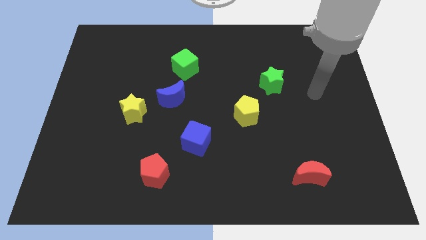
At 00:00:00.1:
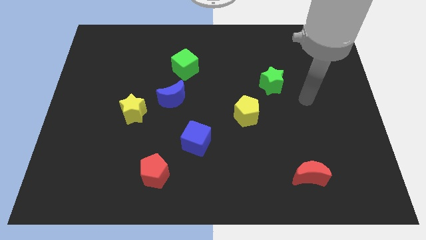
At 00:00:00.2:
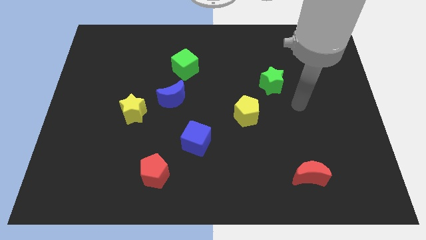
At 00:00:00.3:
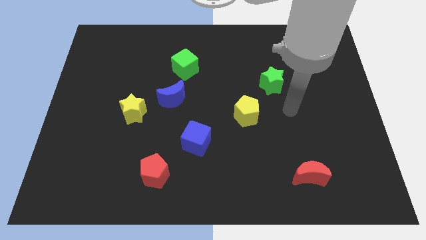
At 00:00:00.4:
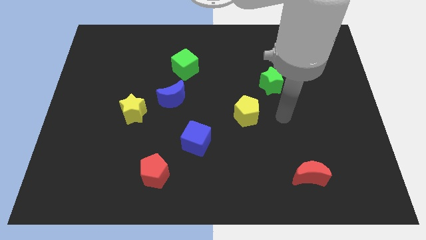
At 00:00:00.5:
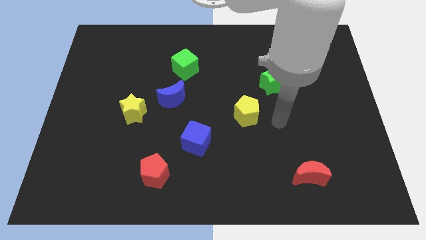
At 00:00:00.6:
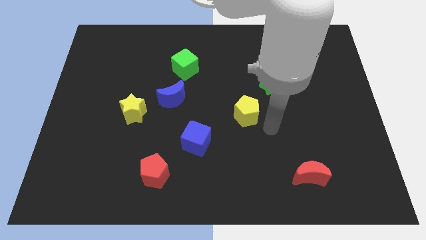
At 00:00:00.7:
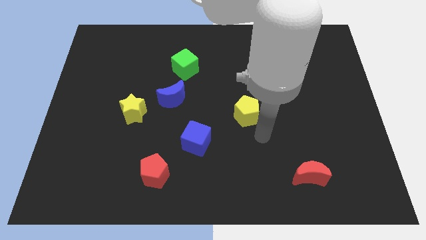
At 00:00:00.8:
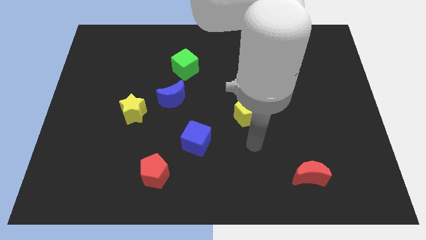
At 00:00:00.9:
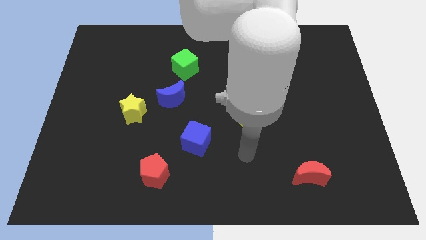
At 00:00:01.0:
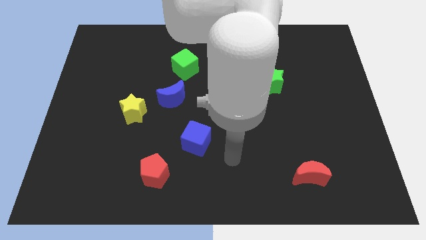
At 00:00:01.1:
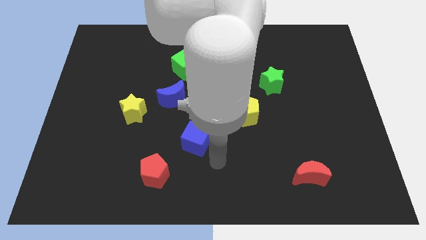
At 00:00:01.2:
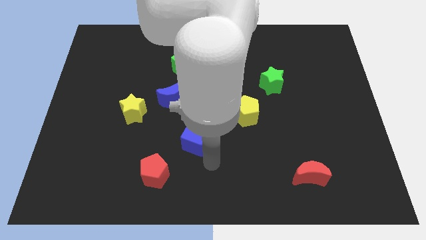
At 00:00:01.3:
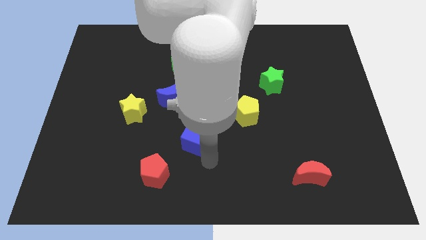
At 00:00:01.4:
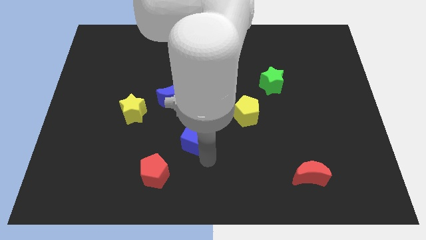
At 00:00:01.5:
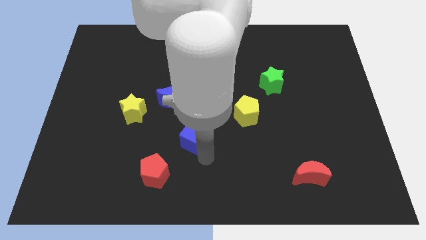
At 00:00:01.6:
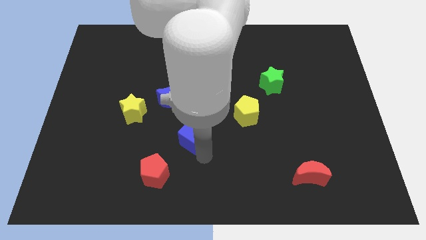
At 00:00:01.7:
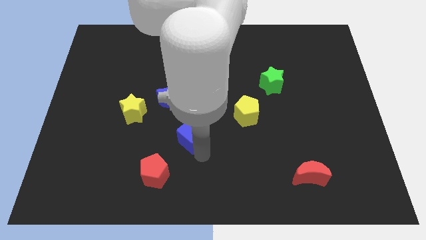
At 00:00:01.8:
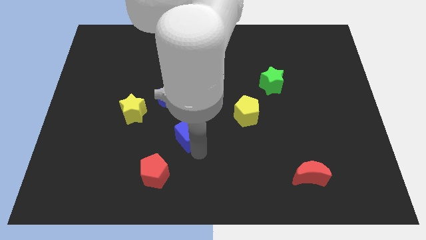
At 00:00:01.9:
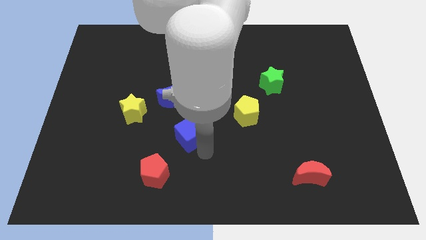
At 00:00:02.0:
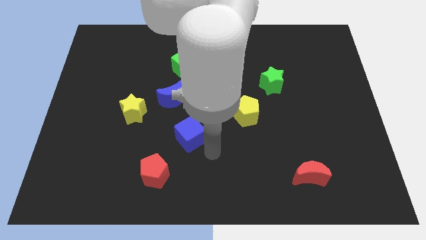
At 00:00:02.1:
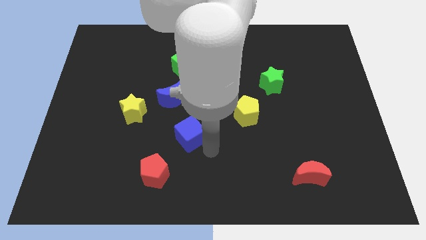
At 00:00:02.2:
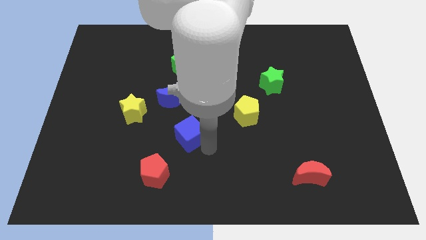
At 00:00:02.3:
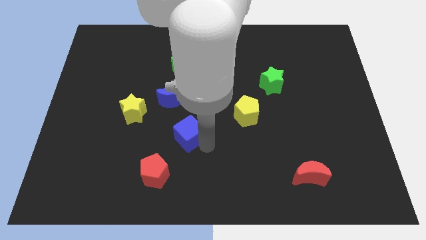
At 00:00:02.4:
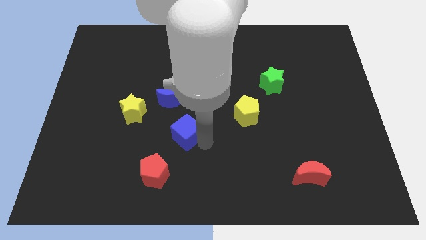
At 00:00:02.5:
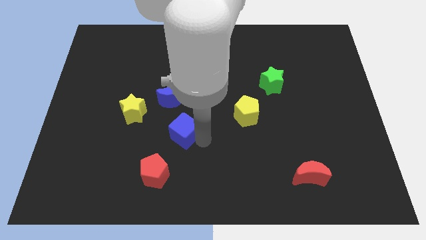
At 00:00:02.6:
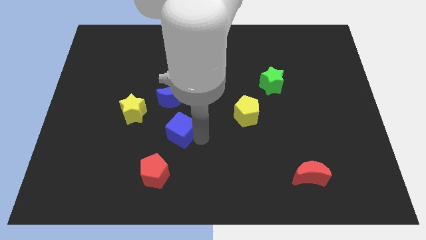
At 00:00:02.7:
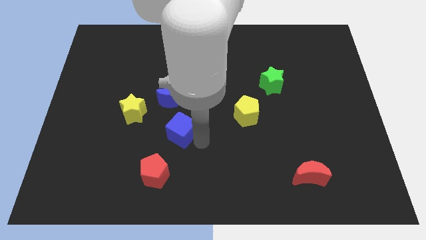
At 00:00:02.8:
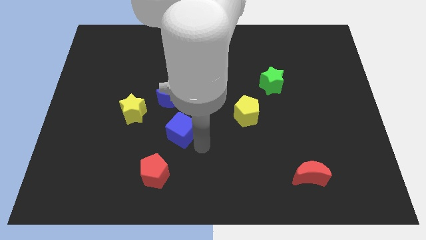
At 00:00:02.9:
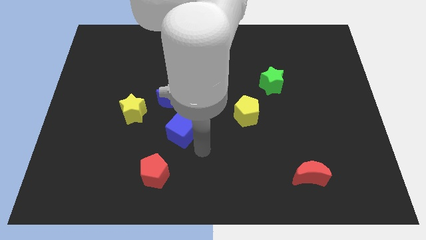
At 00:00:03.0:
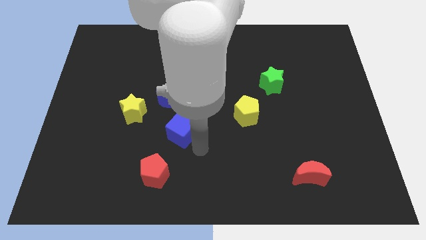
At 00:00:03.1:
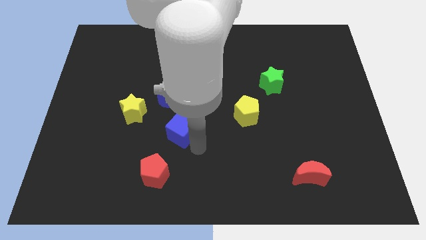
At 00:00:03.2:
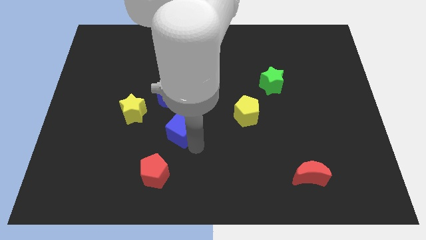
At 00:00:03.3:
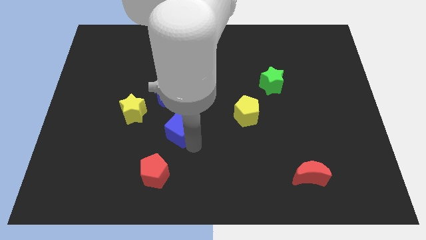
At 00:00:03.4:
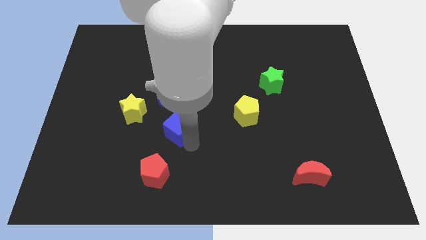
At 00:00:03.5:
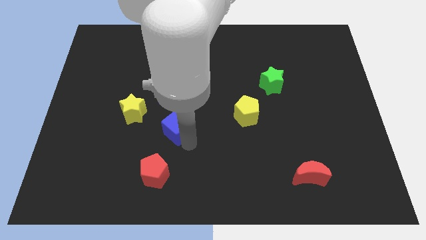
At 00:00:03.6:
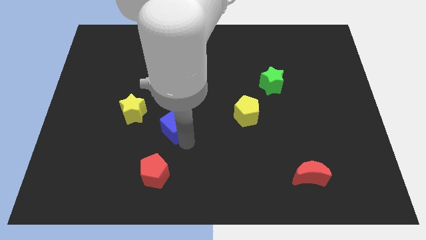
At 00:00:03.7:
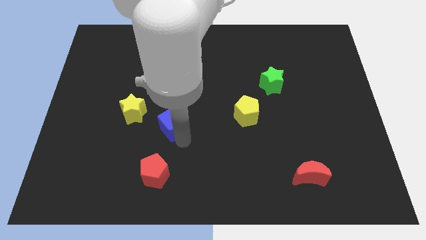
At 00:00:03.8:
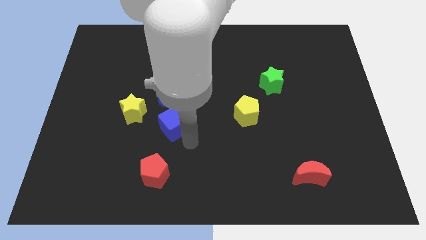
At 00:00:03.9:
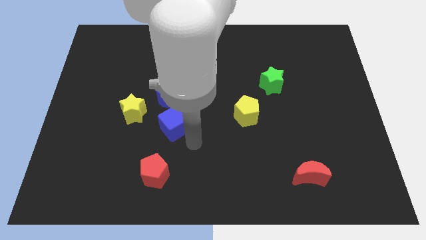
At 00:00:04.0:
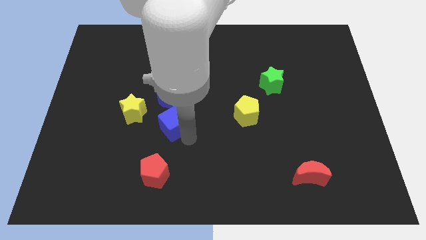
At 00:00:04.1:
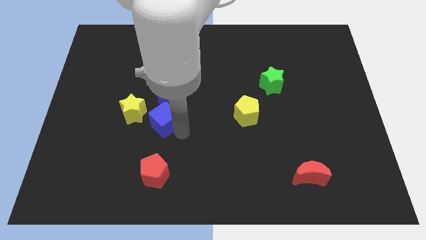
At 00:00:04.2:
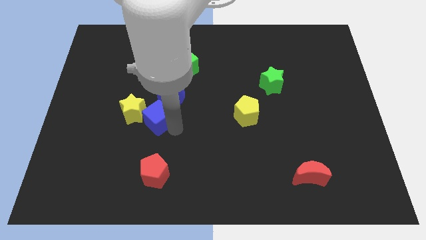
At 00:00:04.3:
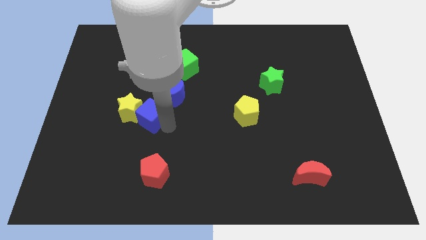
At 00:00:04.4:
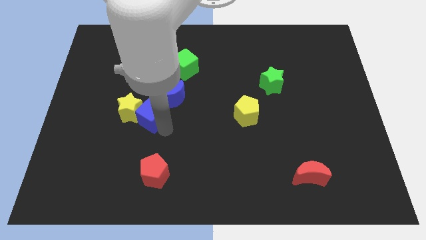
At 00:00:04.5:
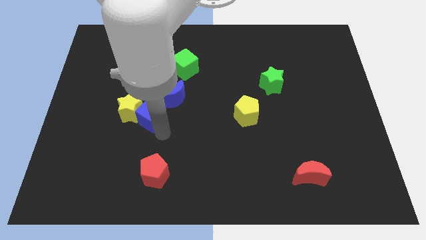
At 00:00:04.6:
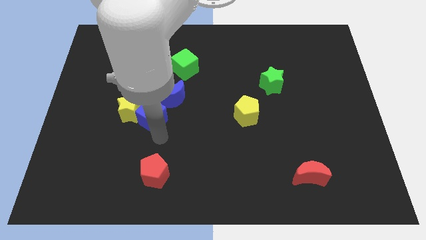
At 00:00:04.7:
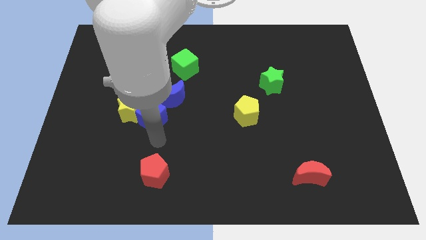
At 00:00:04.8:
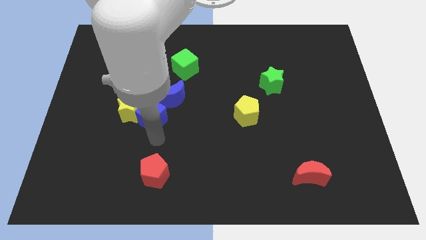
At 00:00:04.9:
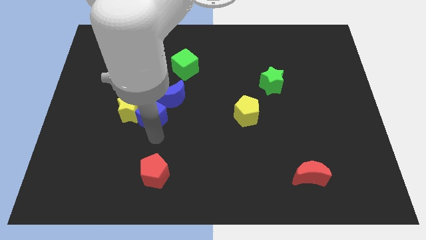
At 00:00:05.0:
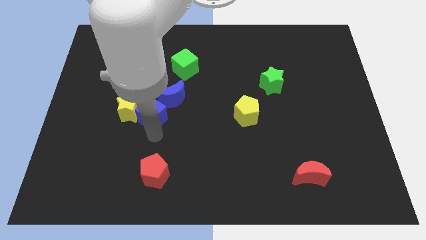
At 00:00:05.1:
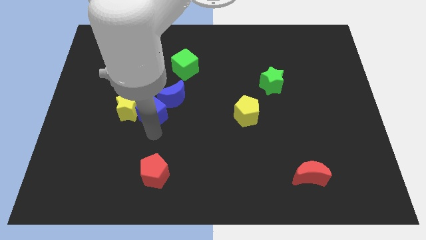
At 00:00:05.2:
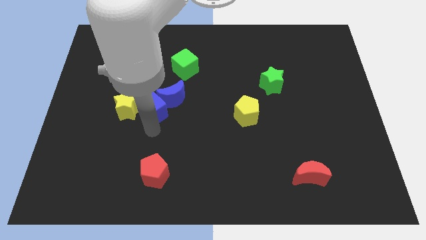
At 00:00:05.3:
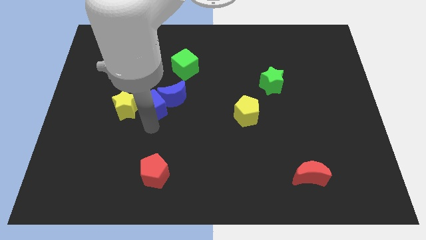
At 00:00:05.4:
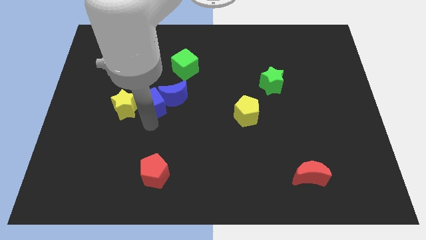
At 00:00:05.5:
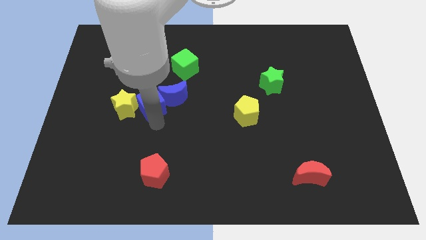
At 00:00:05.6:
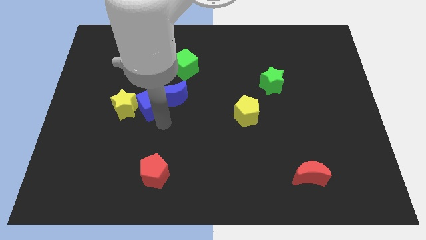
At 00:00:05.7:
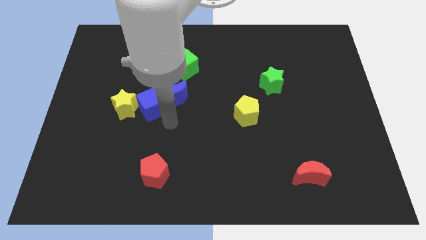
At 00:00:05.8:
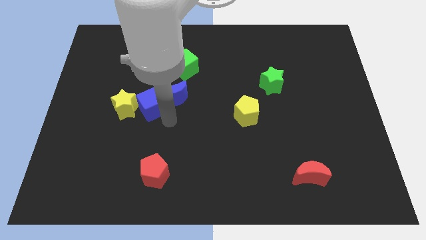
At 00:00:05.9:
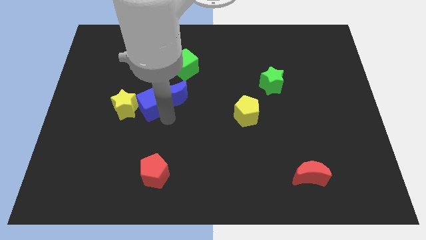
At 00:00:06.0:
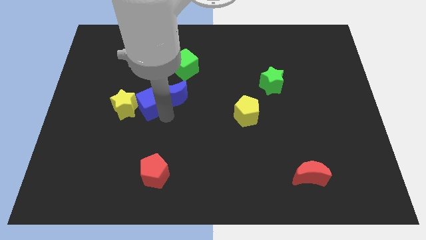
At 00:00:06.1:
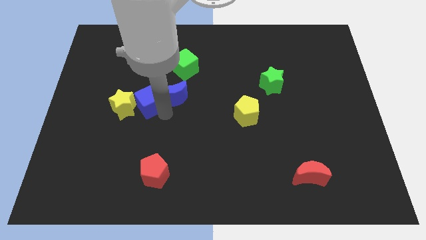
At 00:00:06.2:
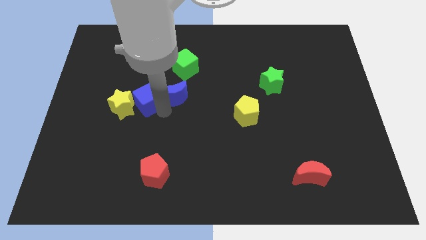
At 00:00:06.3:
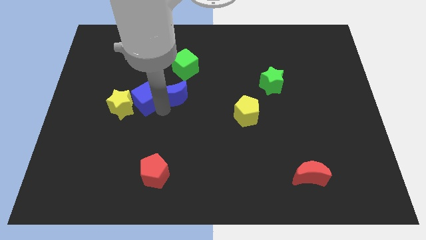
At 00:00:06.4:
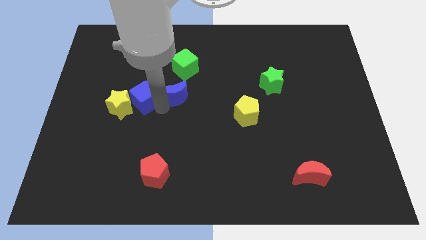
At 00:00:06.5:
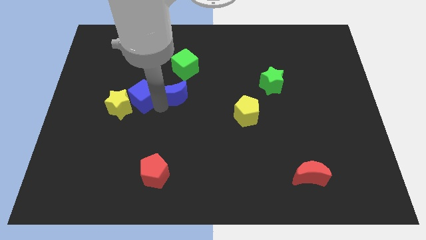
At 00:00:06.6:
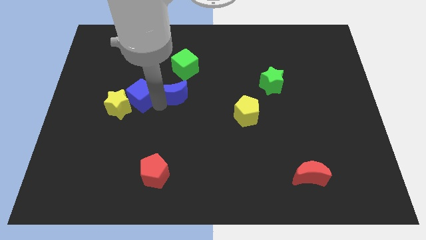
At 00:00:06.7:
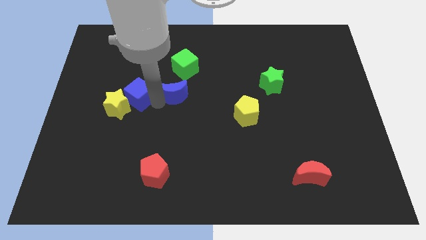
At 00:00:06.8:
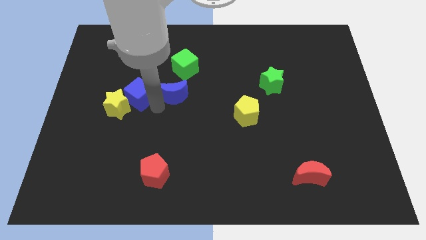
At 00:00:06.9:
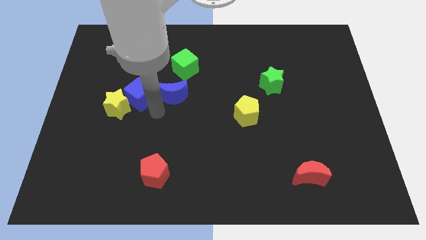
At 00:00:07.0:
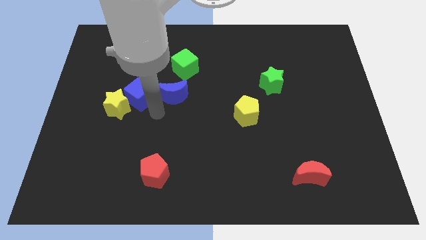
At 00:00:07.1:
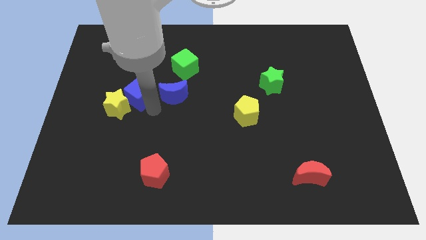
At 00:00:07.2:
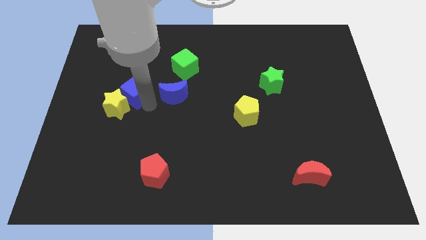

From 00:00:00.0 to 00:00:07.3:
move the blue cube diagonally up and to the left

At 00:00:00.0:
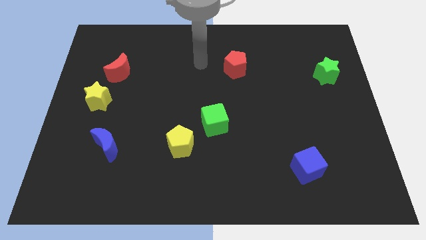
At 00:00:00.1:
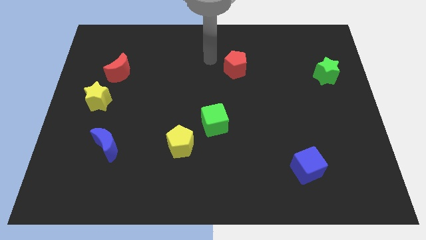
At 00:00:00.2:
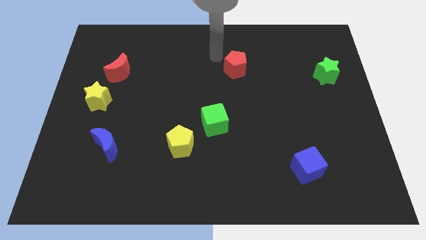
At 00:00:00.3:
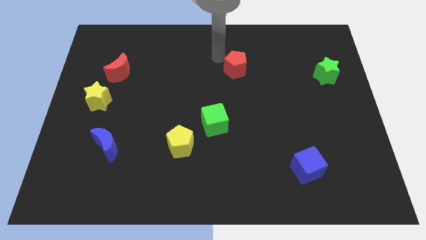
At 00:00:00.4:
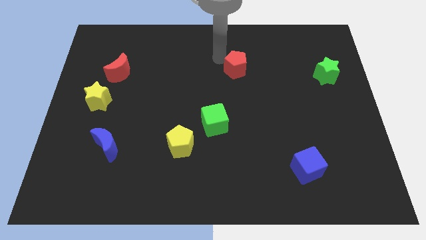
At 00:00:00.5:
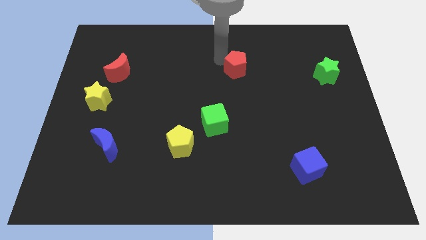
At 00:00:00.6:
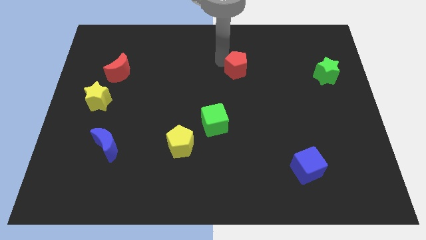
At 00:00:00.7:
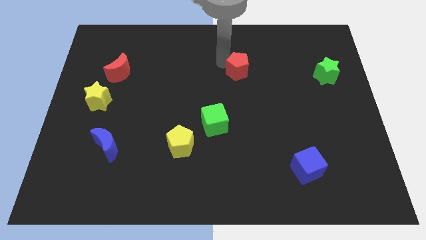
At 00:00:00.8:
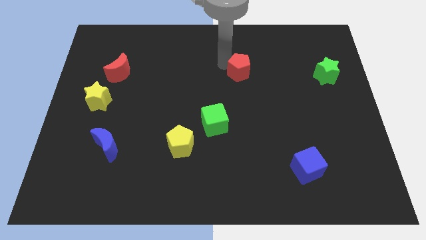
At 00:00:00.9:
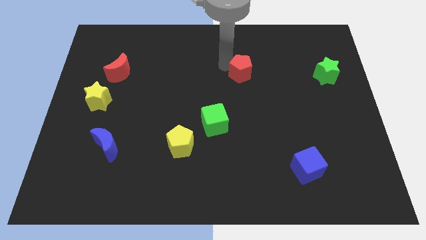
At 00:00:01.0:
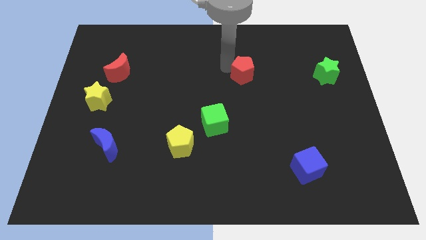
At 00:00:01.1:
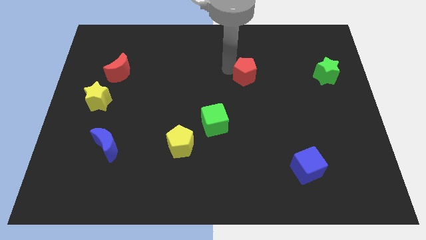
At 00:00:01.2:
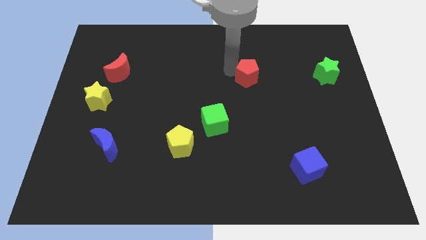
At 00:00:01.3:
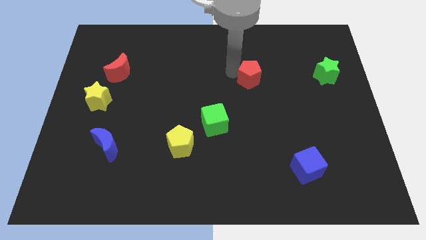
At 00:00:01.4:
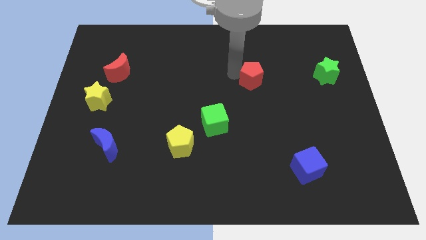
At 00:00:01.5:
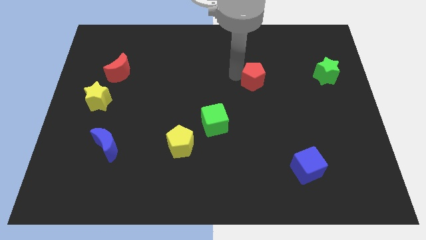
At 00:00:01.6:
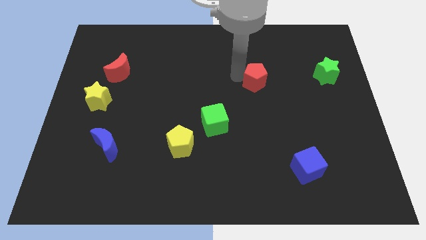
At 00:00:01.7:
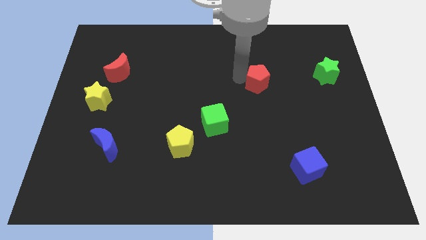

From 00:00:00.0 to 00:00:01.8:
slightly slide the red pentagon downwards and then to the right
